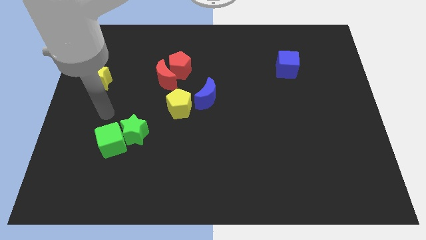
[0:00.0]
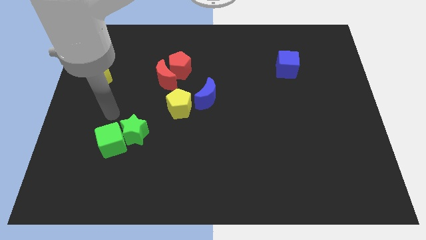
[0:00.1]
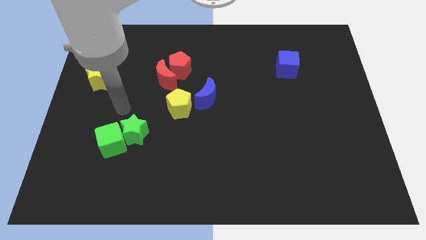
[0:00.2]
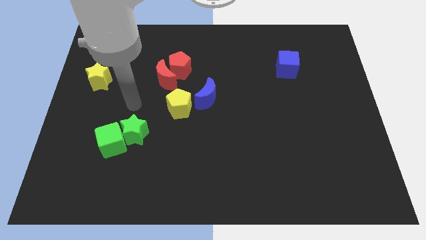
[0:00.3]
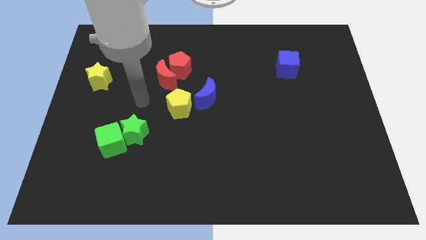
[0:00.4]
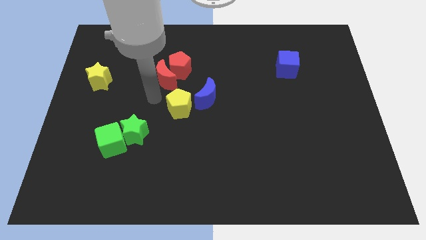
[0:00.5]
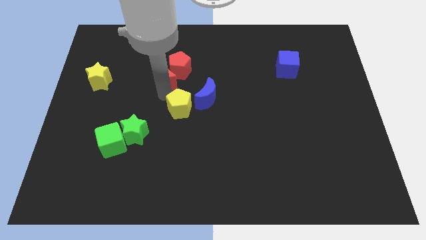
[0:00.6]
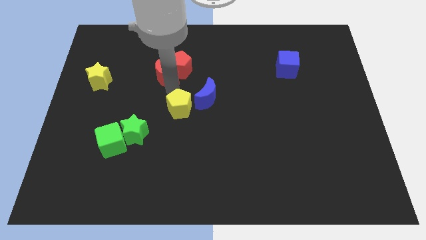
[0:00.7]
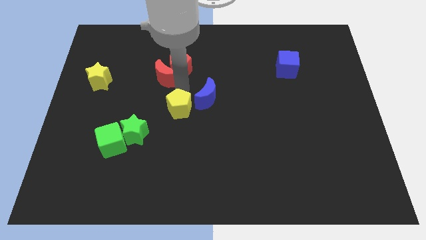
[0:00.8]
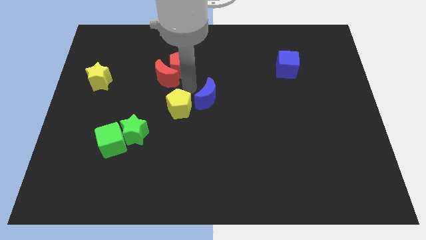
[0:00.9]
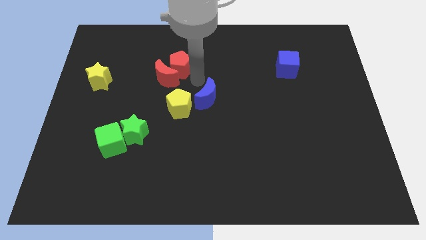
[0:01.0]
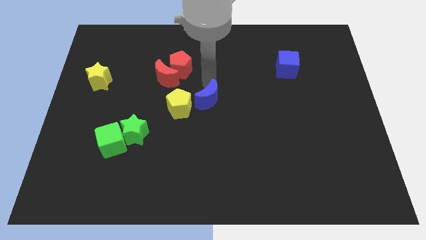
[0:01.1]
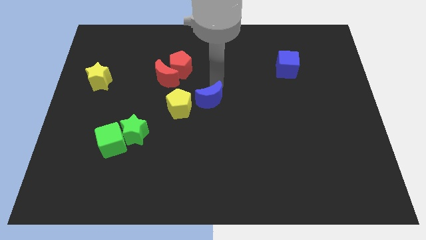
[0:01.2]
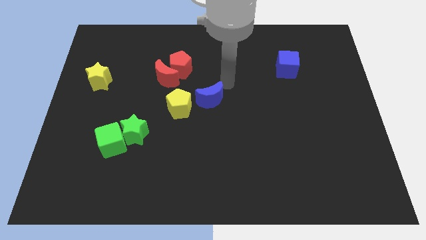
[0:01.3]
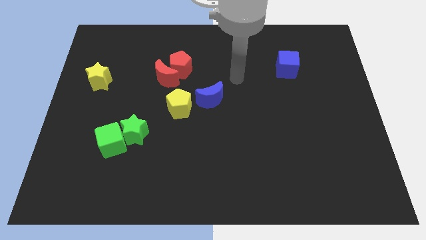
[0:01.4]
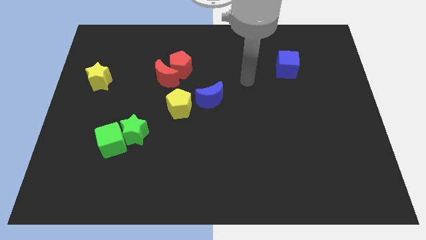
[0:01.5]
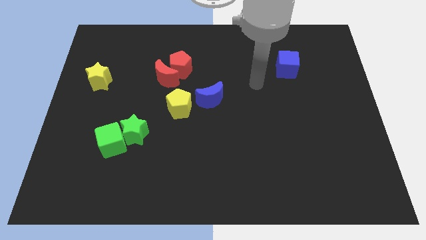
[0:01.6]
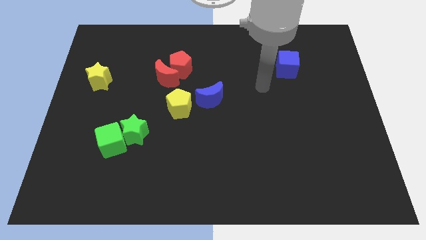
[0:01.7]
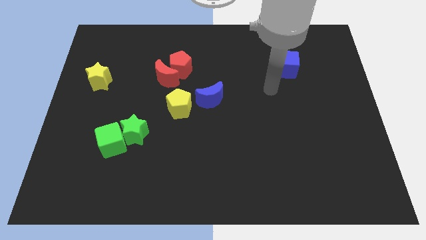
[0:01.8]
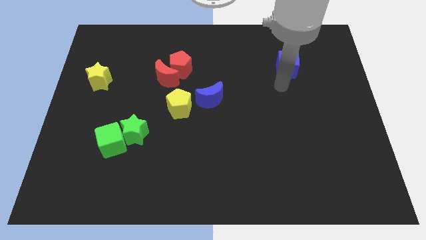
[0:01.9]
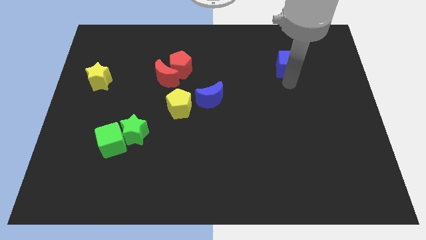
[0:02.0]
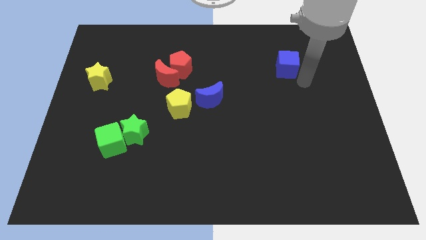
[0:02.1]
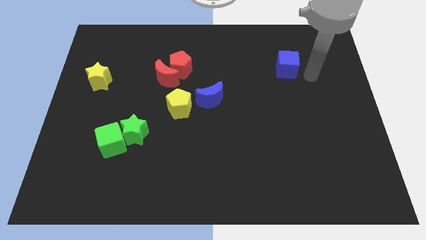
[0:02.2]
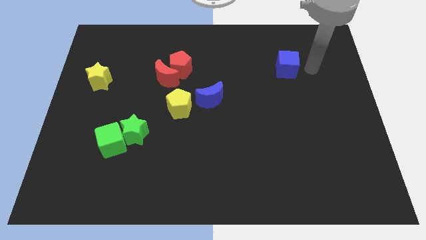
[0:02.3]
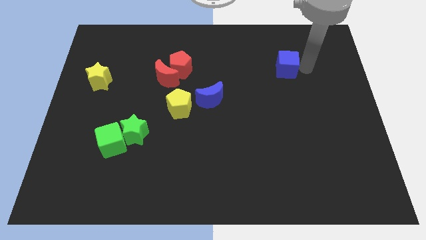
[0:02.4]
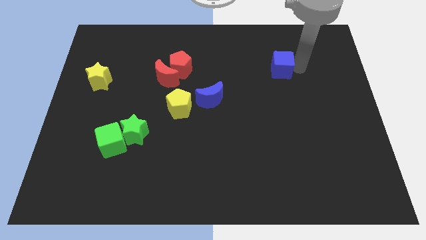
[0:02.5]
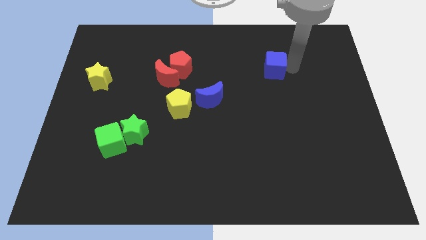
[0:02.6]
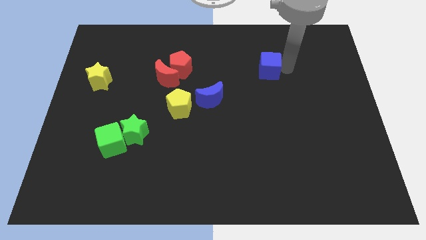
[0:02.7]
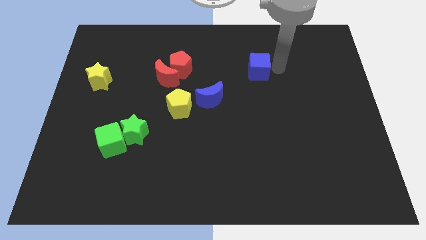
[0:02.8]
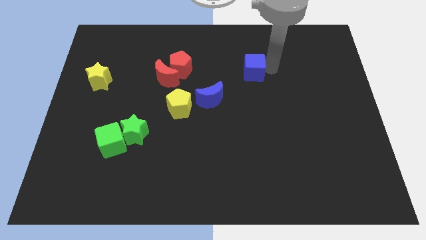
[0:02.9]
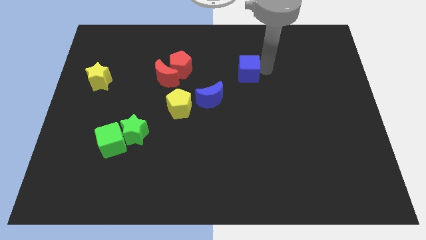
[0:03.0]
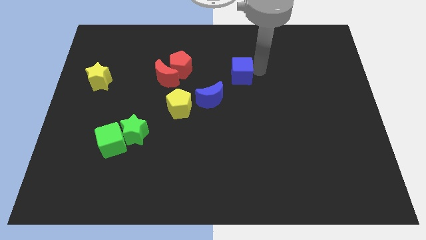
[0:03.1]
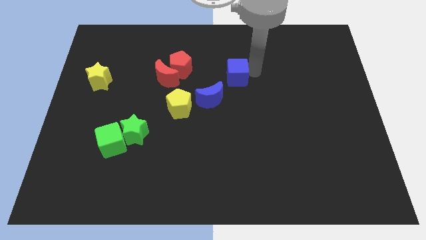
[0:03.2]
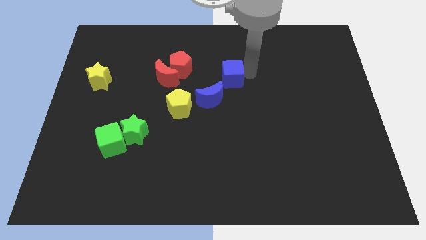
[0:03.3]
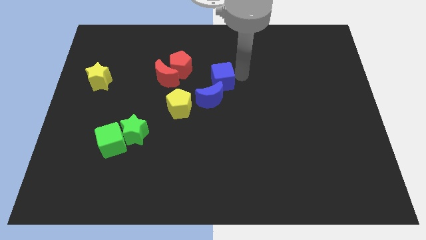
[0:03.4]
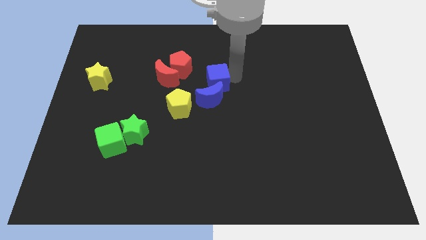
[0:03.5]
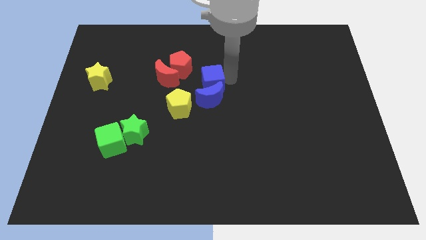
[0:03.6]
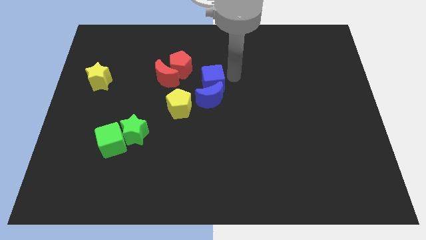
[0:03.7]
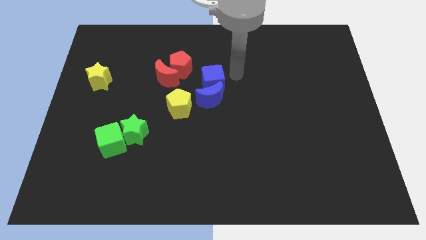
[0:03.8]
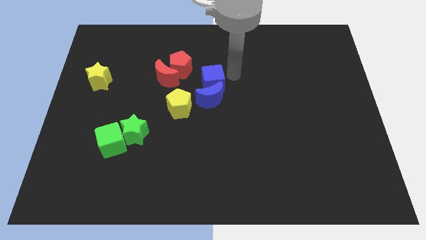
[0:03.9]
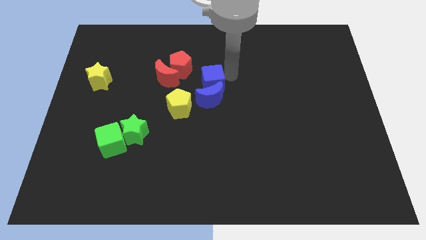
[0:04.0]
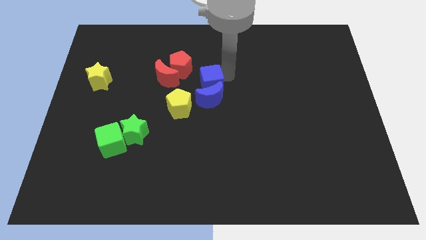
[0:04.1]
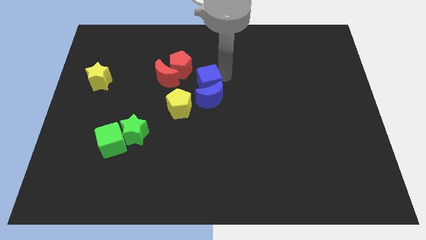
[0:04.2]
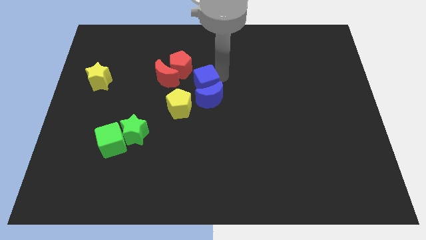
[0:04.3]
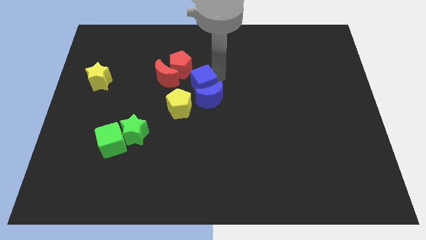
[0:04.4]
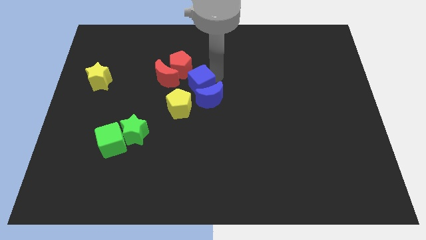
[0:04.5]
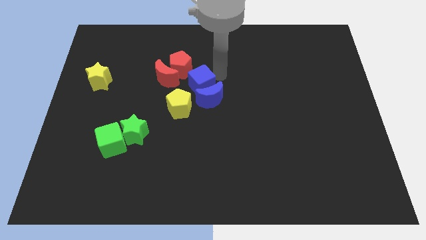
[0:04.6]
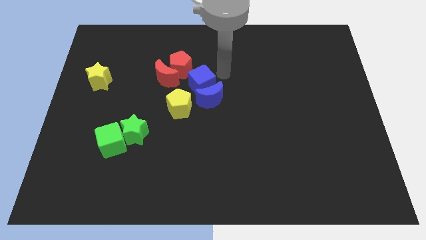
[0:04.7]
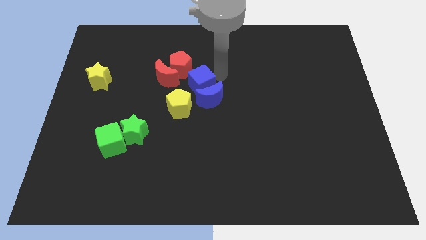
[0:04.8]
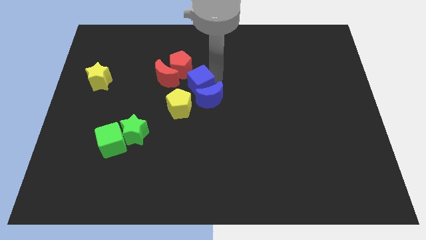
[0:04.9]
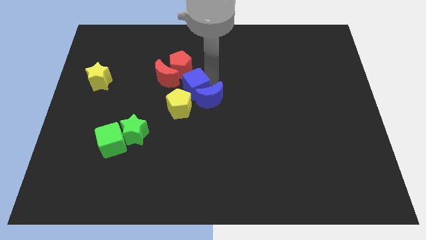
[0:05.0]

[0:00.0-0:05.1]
push the blue cube to the left of the blue moon

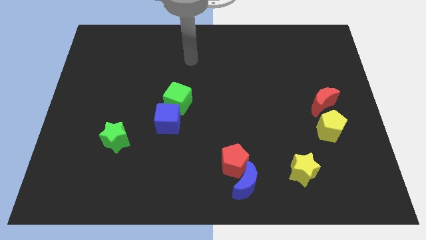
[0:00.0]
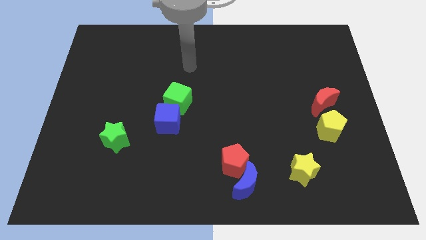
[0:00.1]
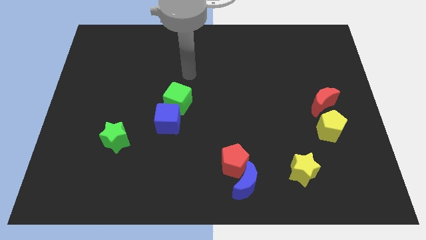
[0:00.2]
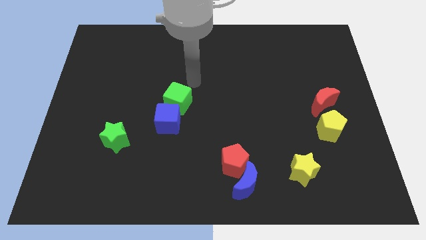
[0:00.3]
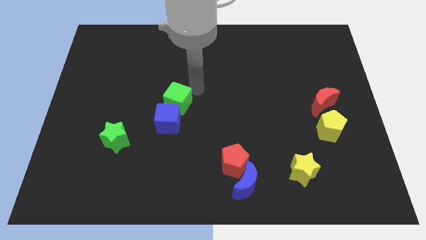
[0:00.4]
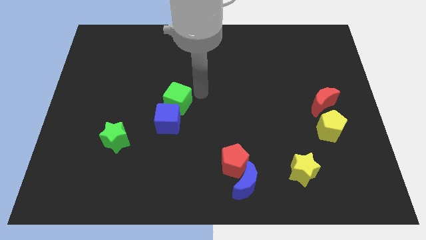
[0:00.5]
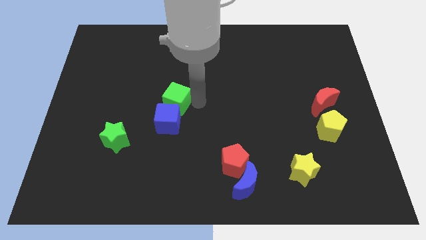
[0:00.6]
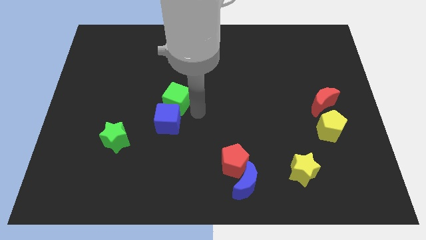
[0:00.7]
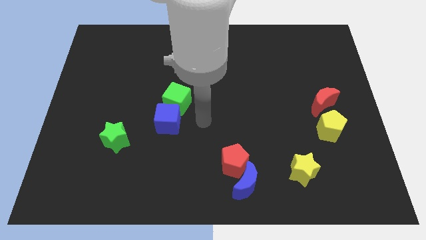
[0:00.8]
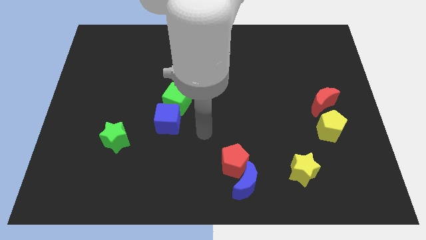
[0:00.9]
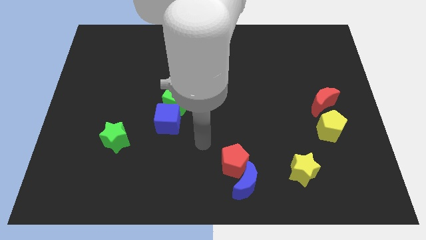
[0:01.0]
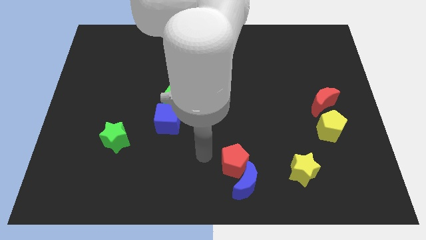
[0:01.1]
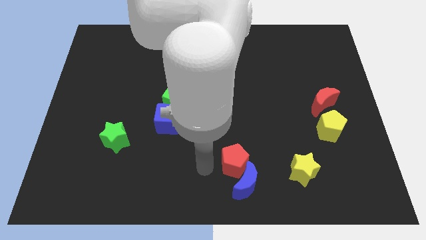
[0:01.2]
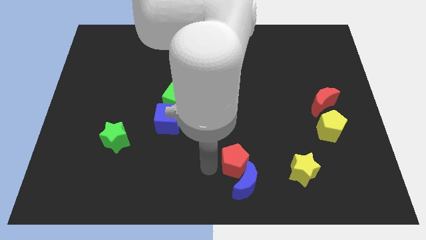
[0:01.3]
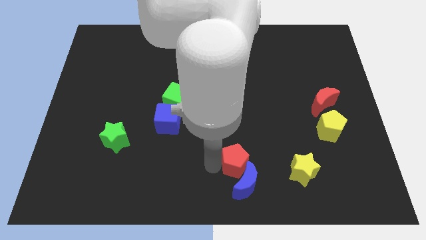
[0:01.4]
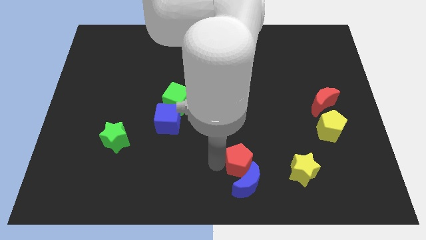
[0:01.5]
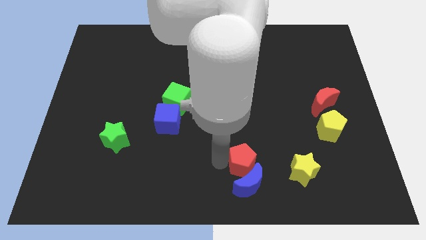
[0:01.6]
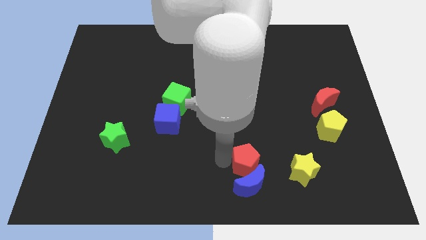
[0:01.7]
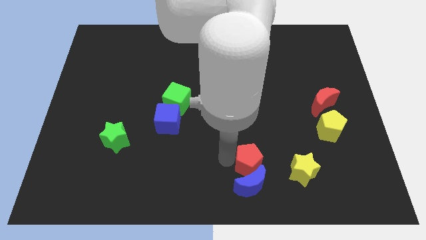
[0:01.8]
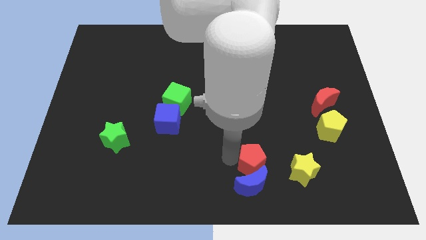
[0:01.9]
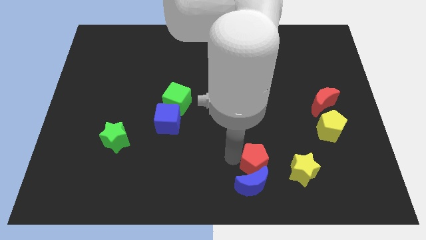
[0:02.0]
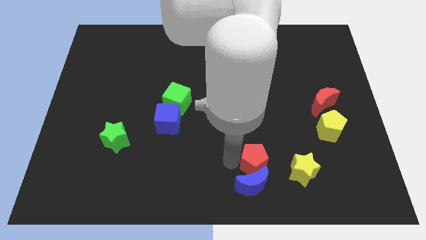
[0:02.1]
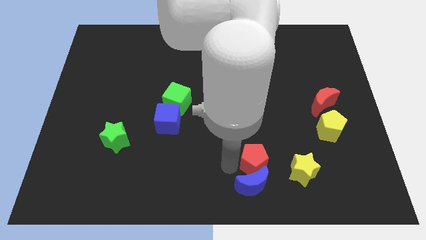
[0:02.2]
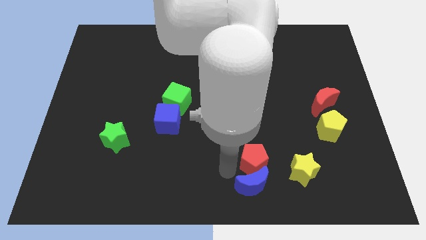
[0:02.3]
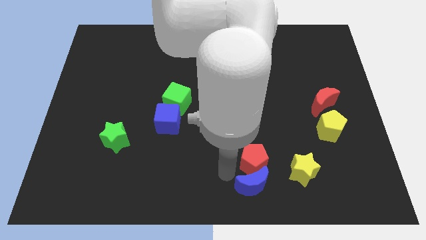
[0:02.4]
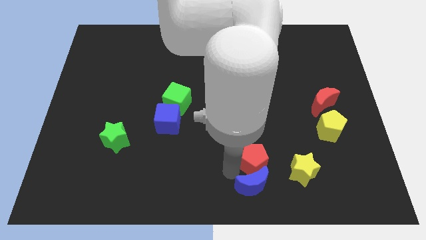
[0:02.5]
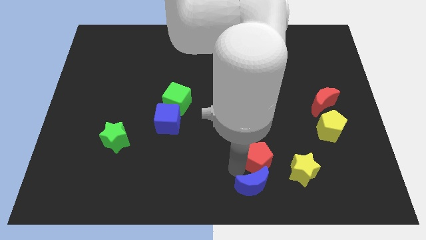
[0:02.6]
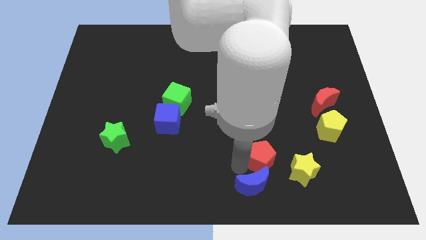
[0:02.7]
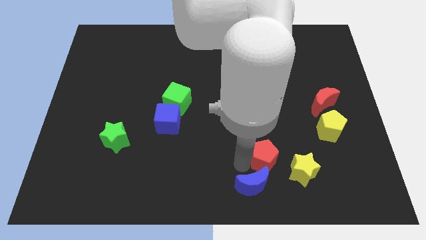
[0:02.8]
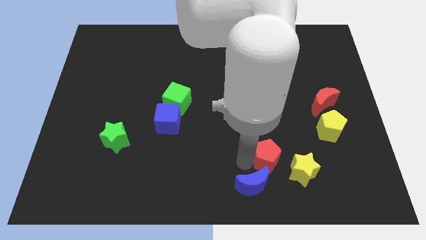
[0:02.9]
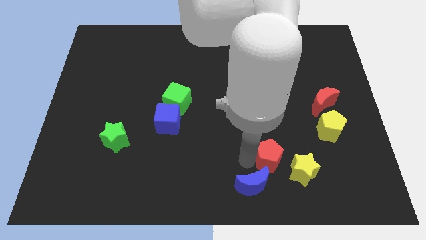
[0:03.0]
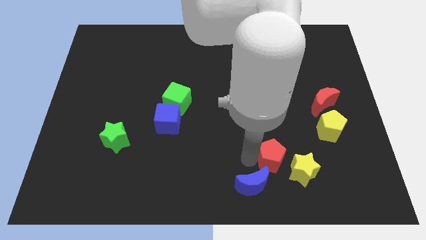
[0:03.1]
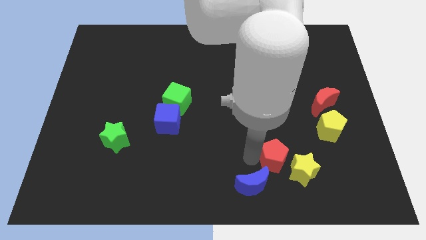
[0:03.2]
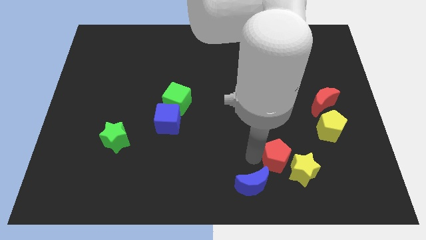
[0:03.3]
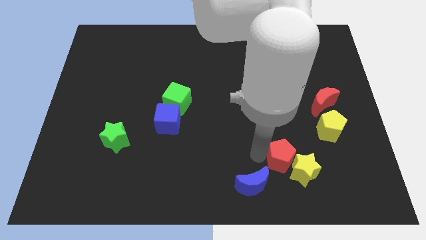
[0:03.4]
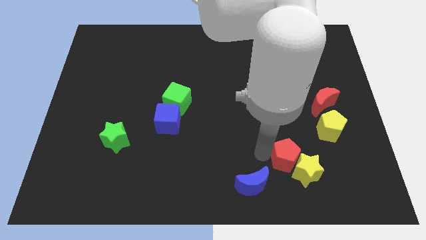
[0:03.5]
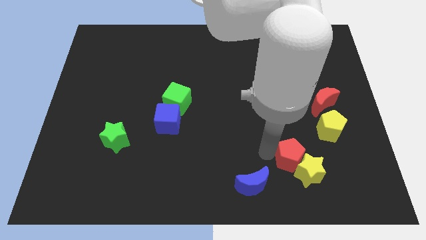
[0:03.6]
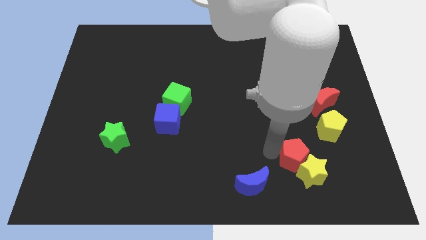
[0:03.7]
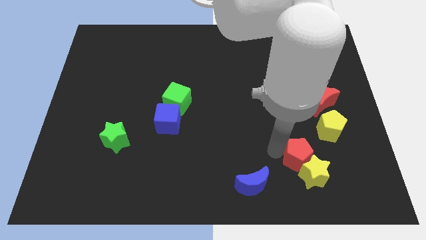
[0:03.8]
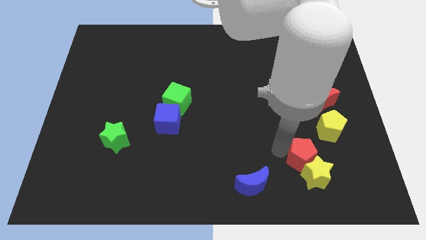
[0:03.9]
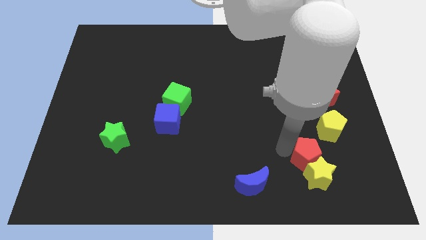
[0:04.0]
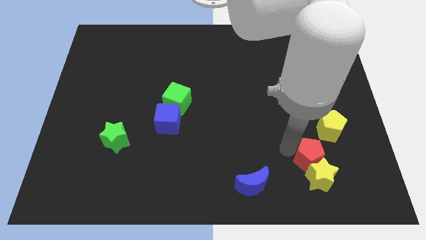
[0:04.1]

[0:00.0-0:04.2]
put the red pentagon to the top right of the yellow star
